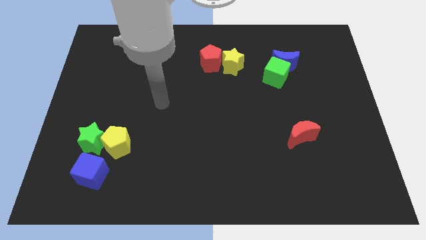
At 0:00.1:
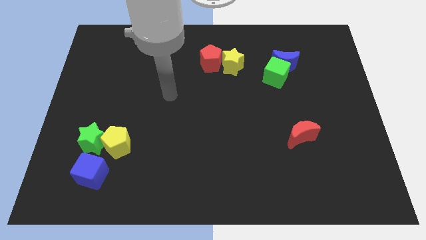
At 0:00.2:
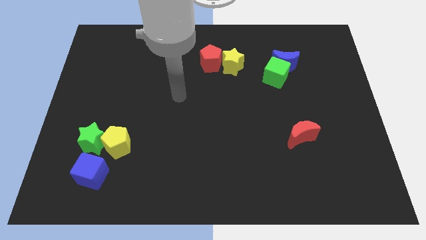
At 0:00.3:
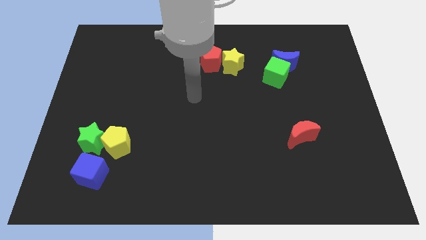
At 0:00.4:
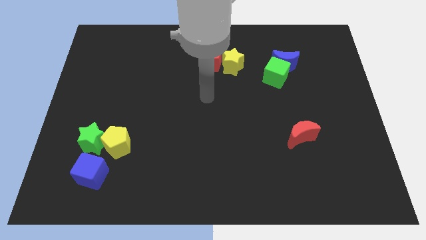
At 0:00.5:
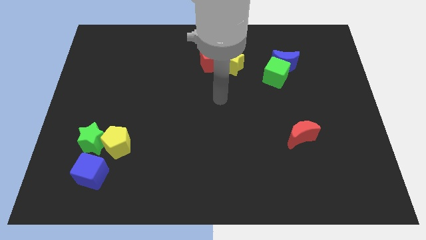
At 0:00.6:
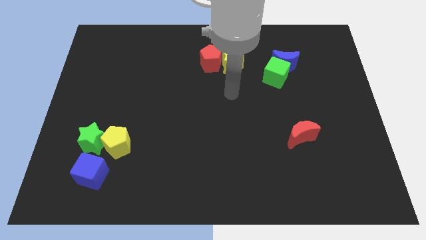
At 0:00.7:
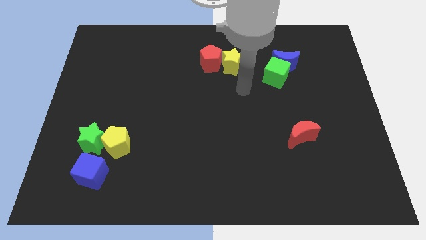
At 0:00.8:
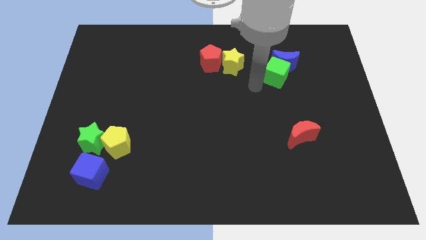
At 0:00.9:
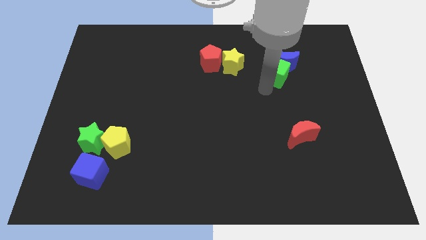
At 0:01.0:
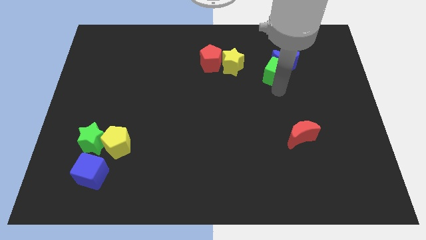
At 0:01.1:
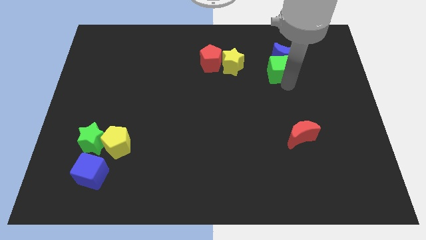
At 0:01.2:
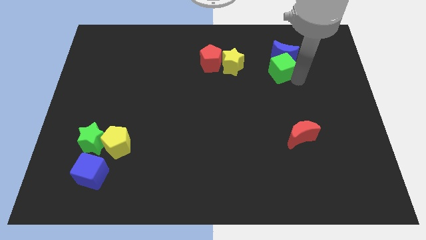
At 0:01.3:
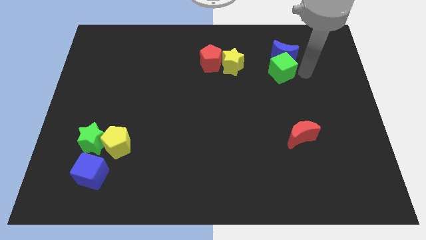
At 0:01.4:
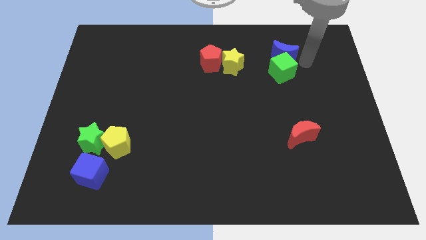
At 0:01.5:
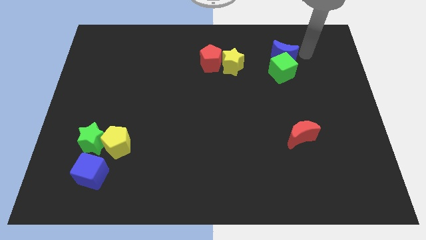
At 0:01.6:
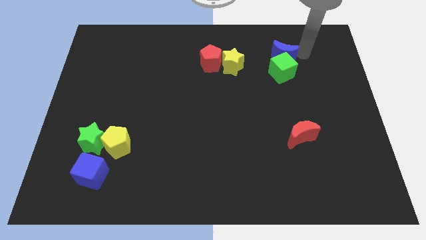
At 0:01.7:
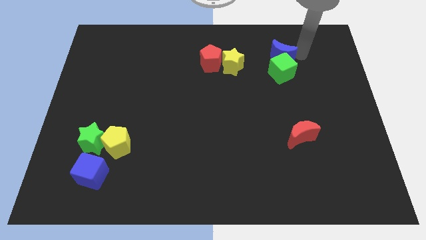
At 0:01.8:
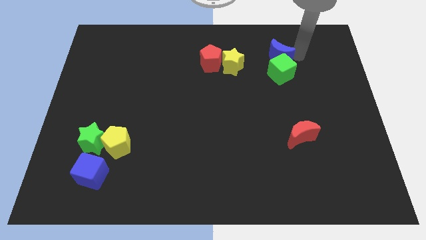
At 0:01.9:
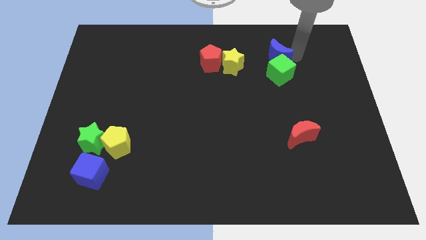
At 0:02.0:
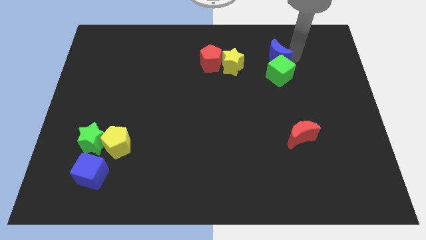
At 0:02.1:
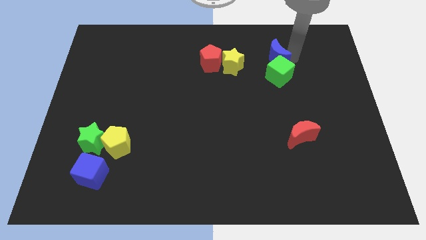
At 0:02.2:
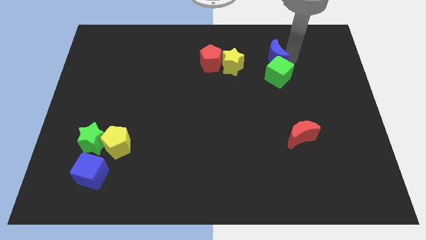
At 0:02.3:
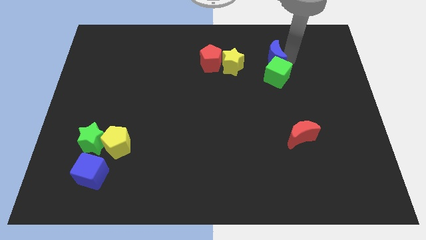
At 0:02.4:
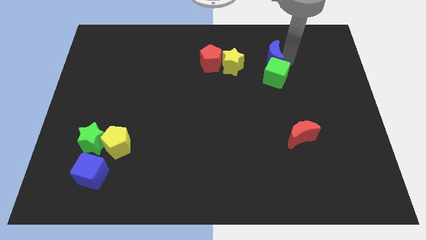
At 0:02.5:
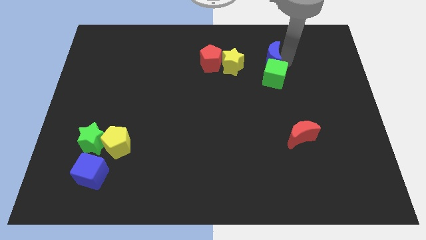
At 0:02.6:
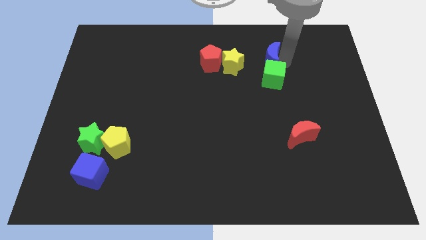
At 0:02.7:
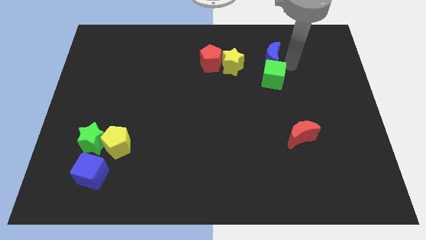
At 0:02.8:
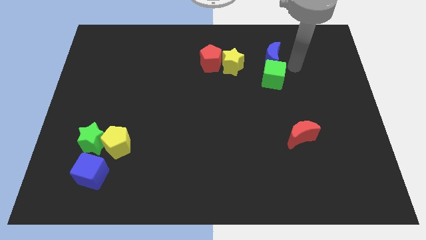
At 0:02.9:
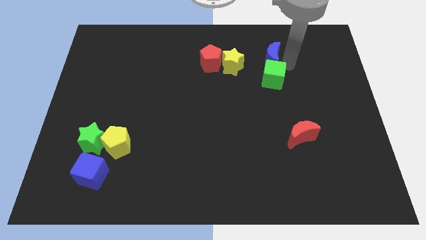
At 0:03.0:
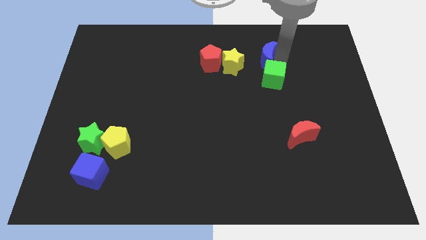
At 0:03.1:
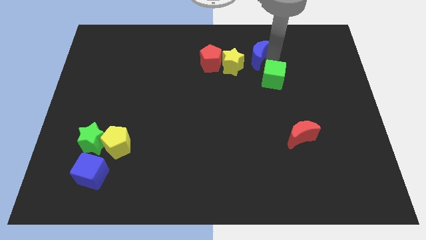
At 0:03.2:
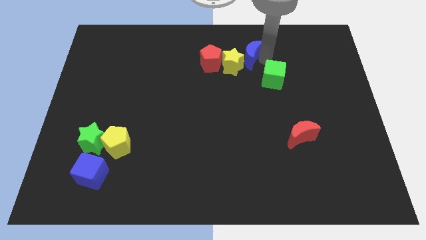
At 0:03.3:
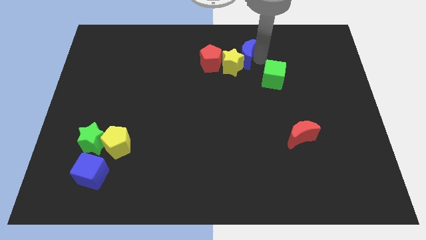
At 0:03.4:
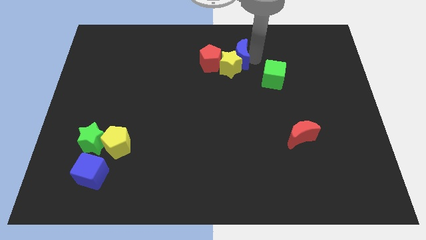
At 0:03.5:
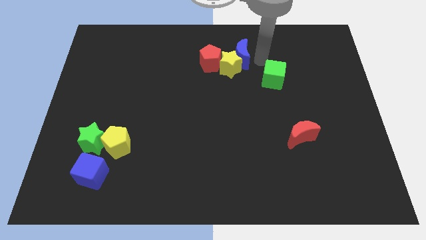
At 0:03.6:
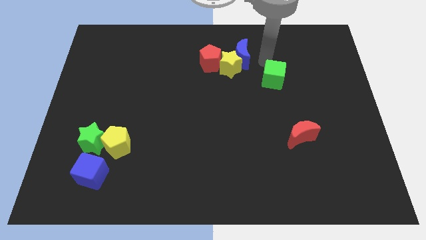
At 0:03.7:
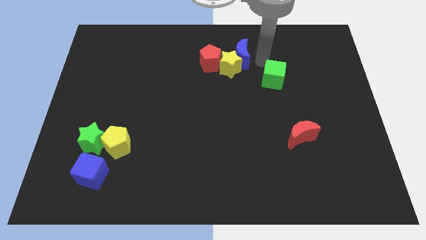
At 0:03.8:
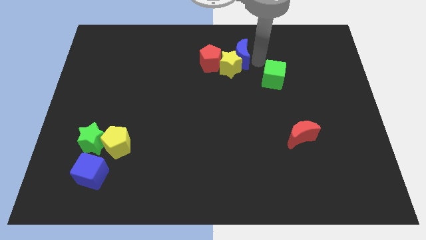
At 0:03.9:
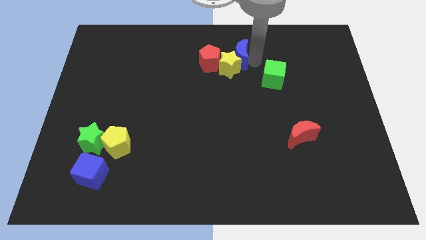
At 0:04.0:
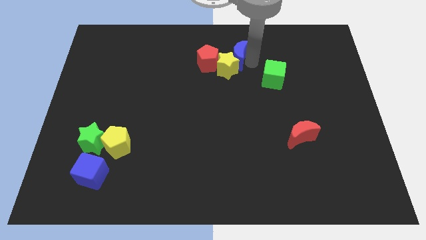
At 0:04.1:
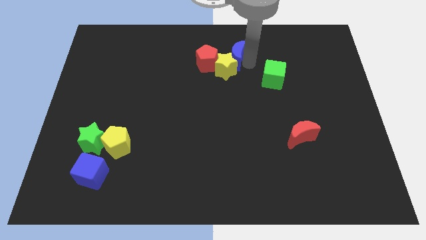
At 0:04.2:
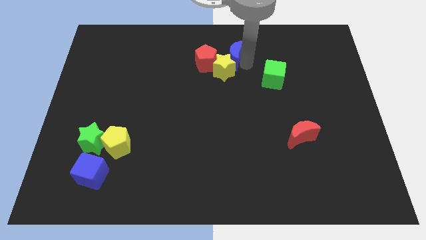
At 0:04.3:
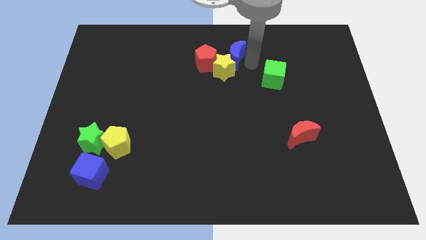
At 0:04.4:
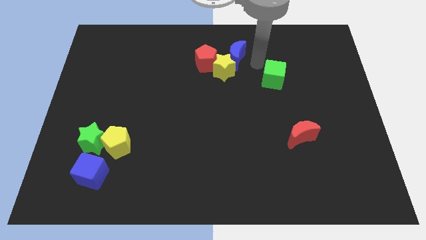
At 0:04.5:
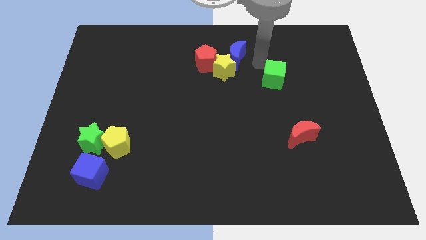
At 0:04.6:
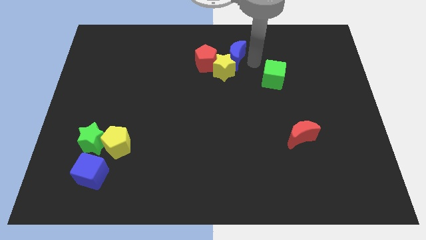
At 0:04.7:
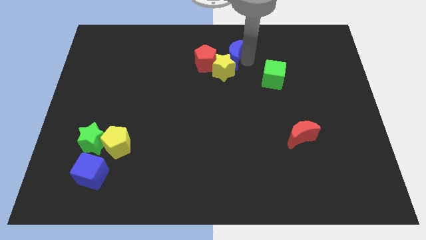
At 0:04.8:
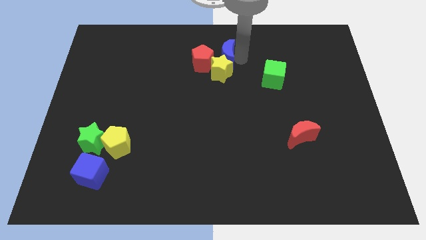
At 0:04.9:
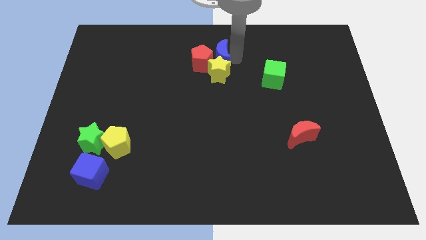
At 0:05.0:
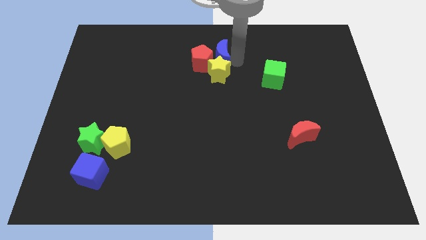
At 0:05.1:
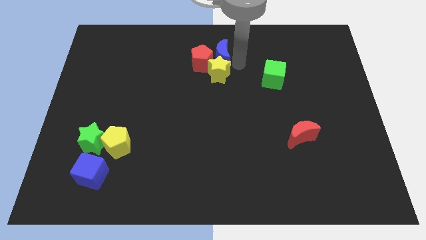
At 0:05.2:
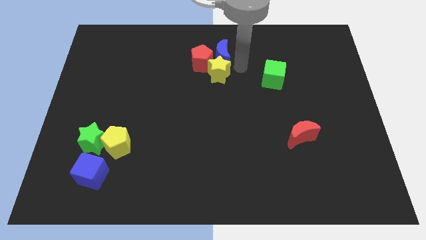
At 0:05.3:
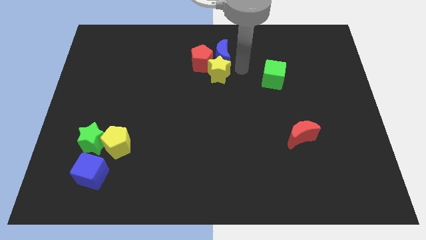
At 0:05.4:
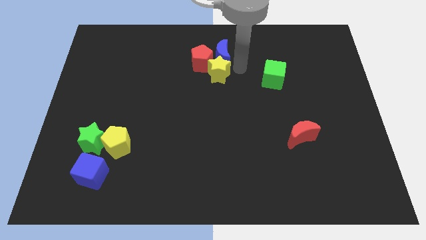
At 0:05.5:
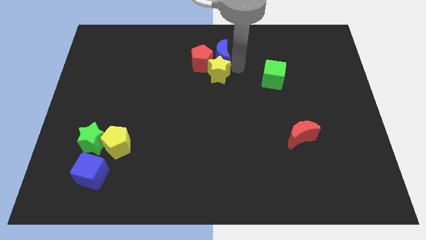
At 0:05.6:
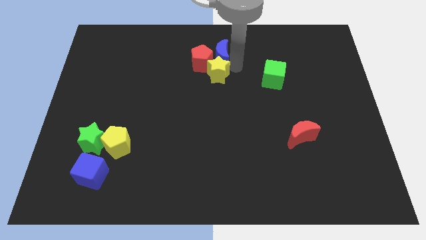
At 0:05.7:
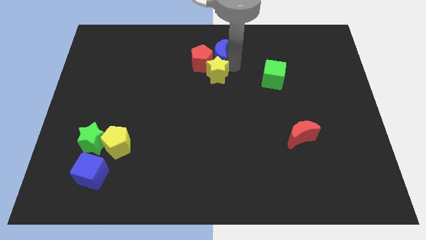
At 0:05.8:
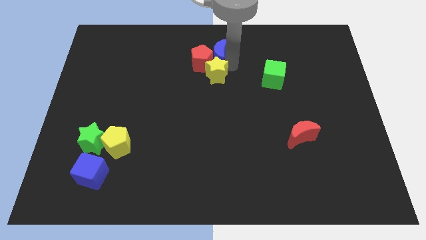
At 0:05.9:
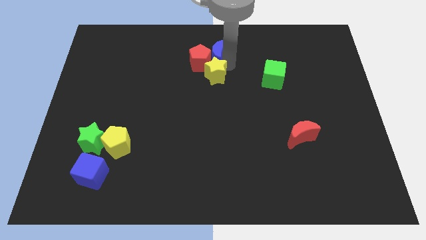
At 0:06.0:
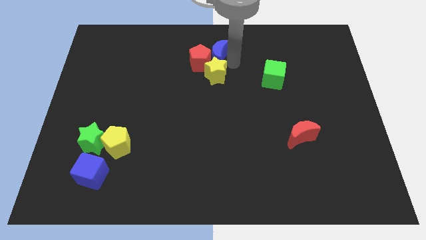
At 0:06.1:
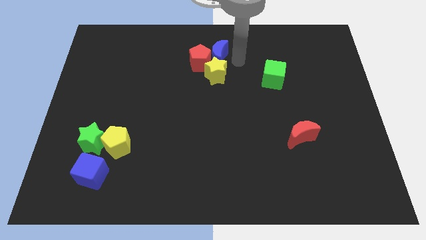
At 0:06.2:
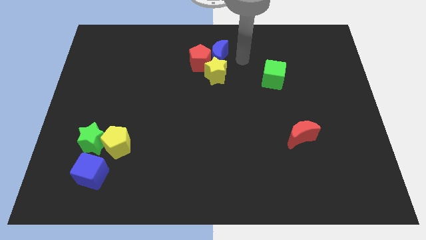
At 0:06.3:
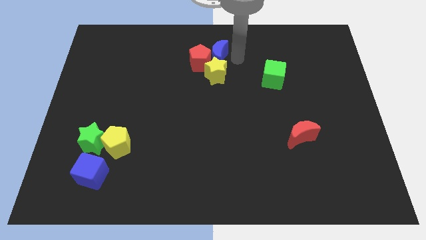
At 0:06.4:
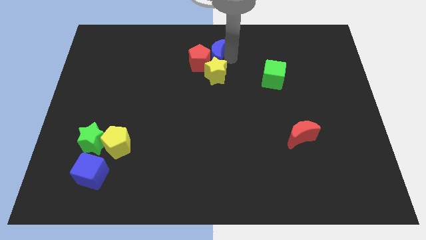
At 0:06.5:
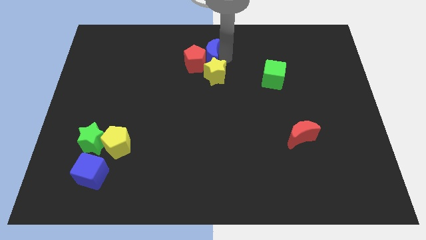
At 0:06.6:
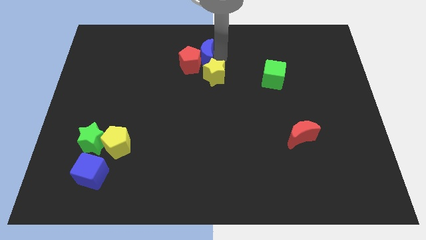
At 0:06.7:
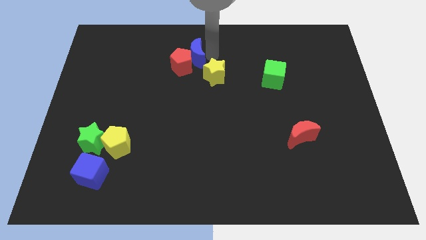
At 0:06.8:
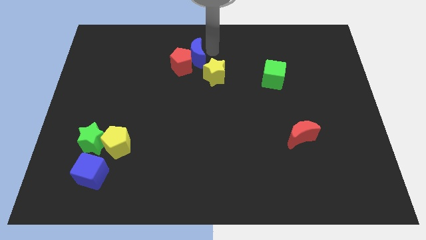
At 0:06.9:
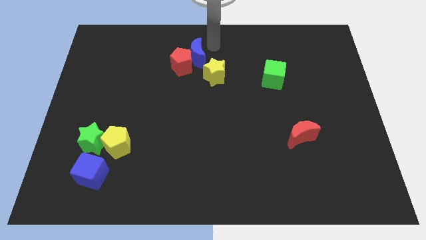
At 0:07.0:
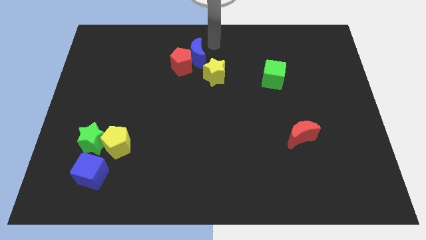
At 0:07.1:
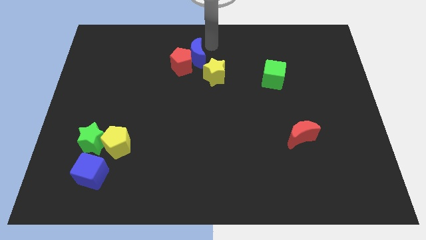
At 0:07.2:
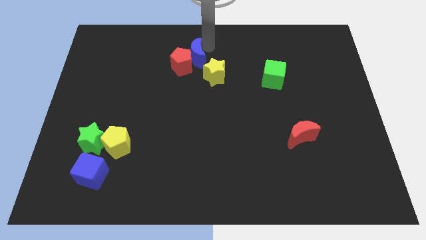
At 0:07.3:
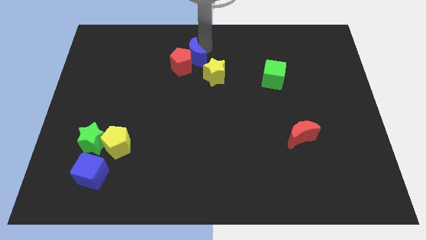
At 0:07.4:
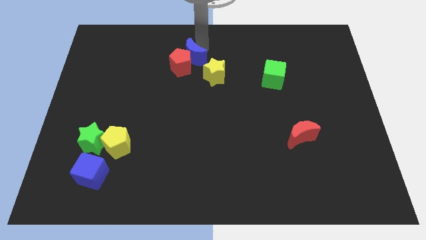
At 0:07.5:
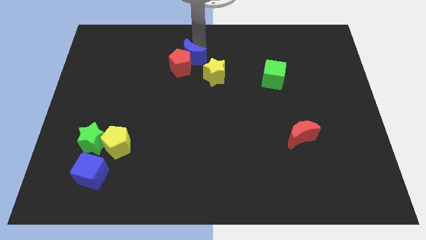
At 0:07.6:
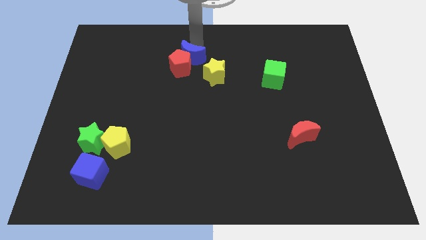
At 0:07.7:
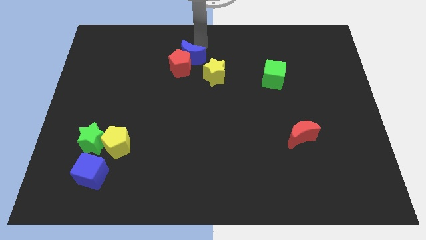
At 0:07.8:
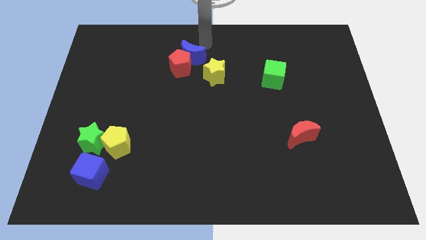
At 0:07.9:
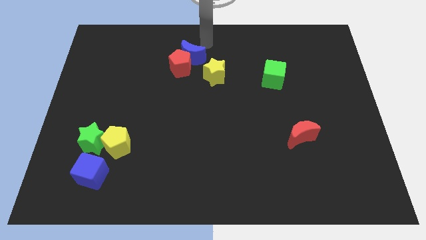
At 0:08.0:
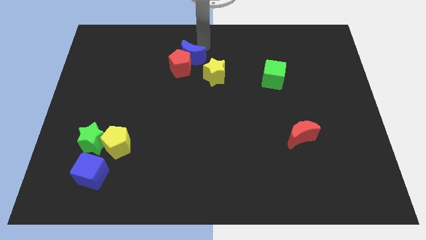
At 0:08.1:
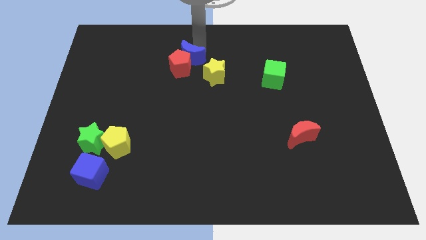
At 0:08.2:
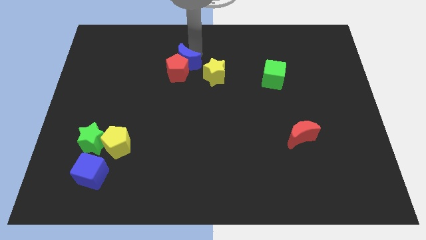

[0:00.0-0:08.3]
slide the blue moon to the left side of the yellow star
